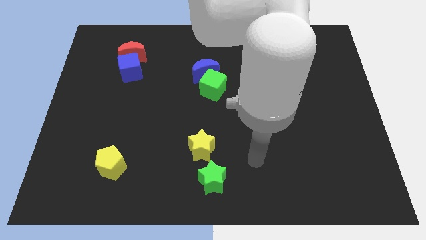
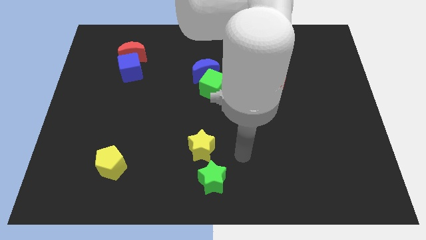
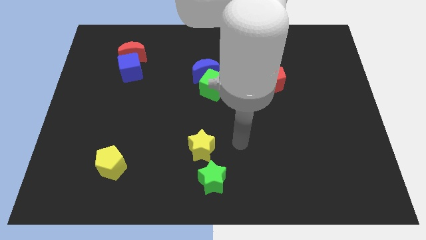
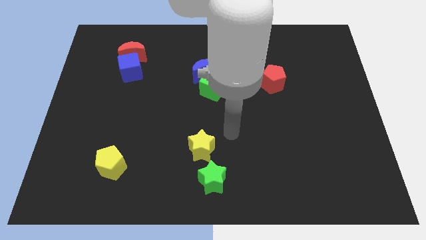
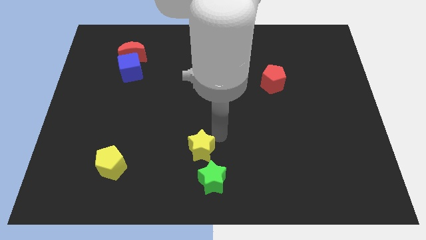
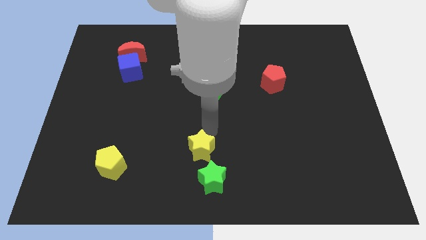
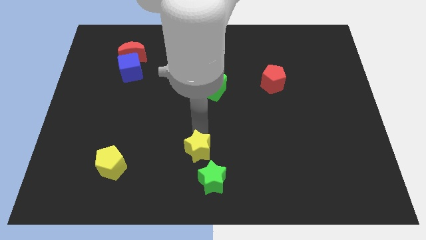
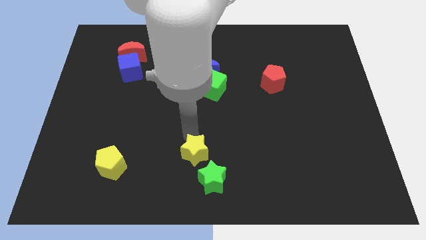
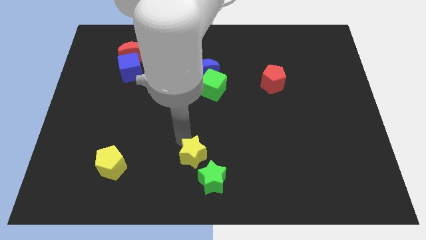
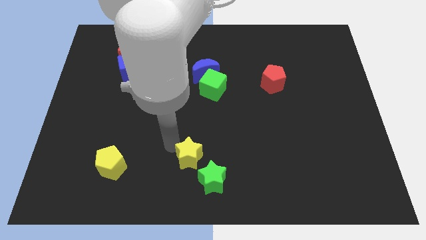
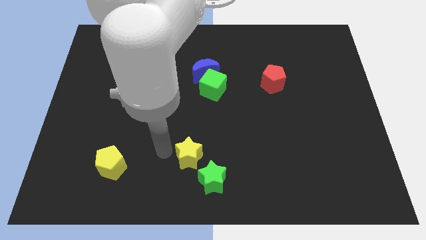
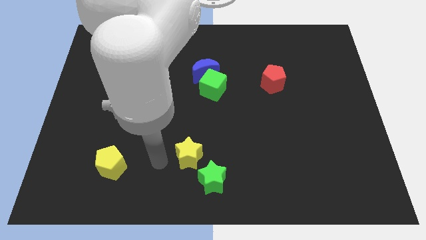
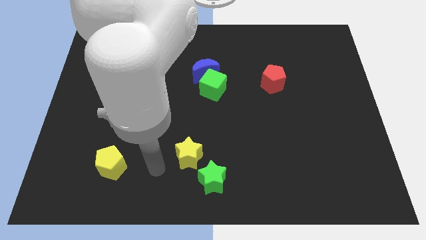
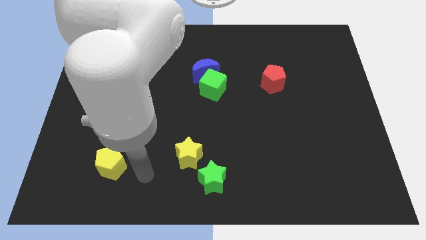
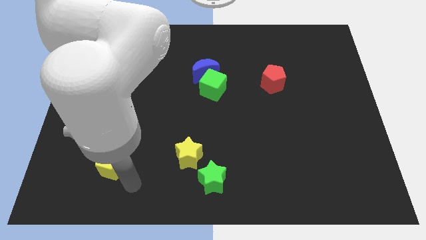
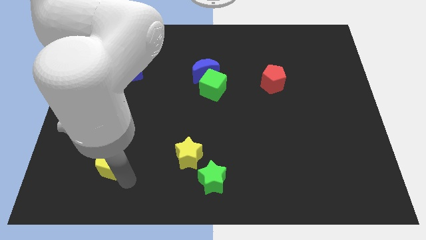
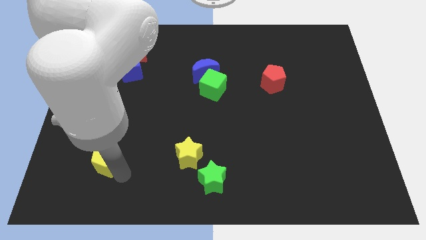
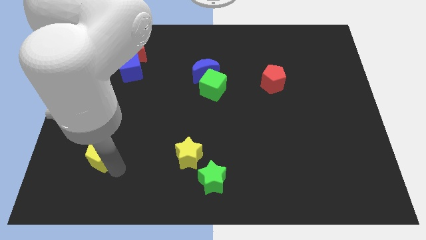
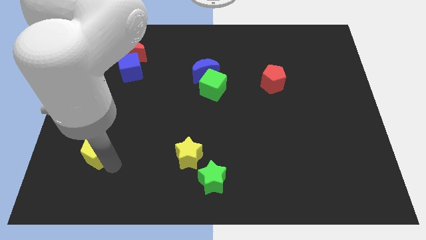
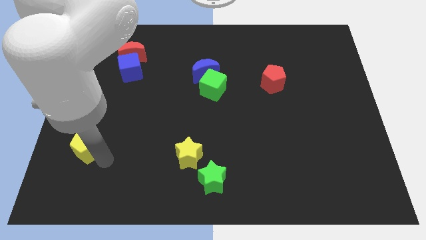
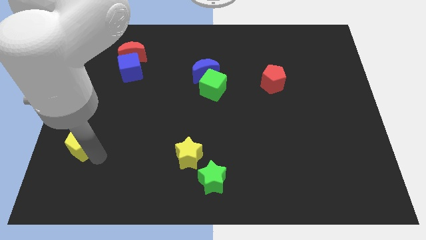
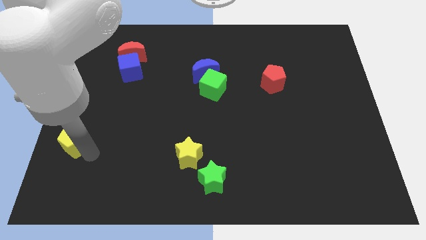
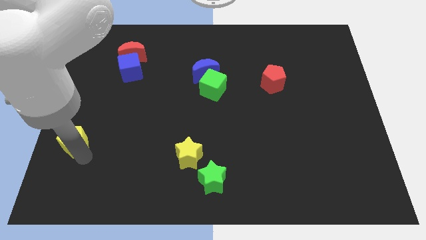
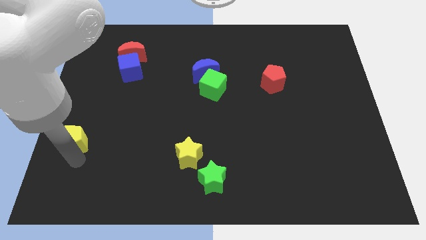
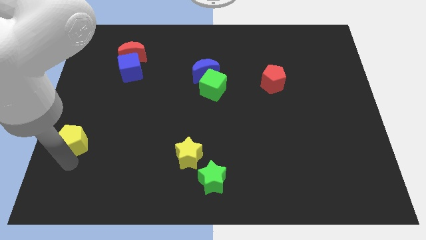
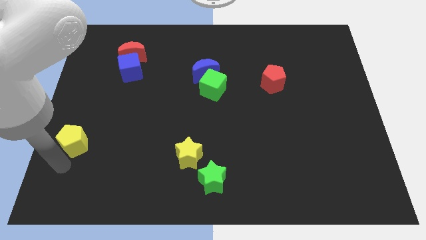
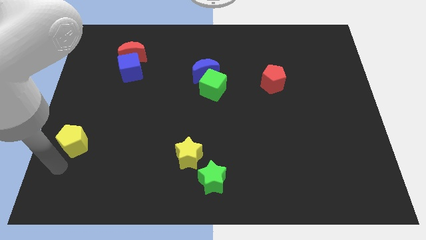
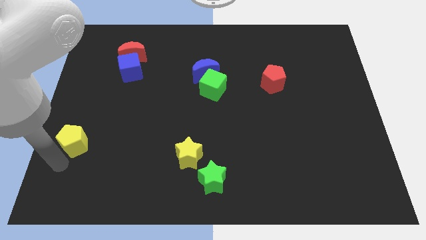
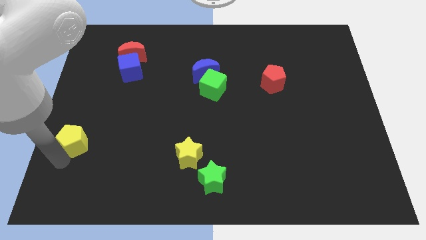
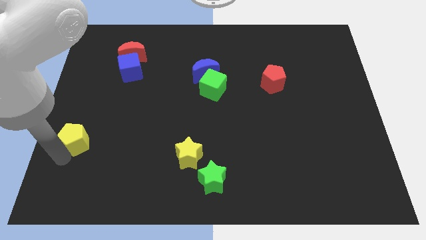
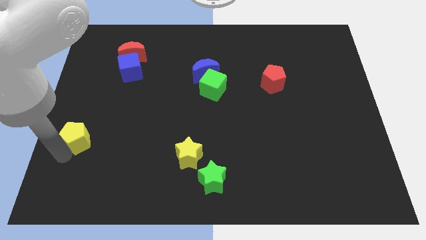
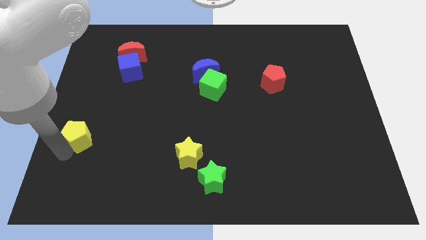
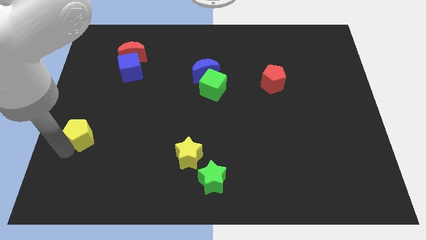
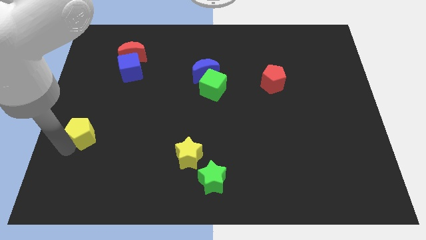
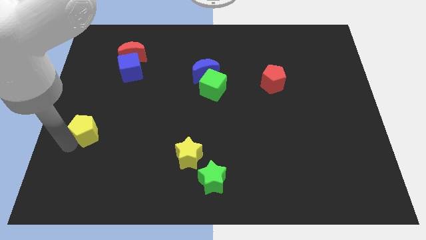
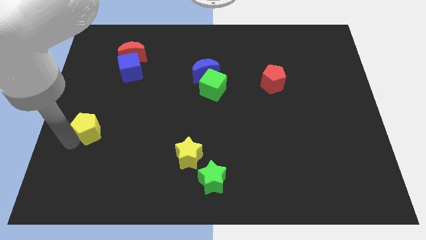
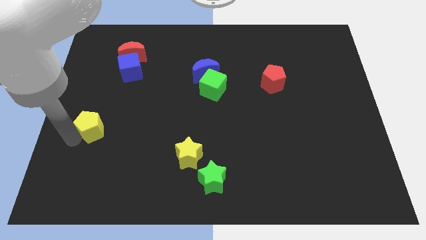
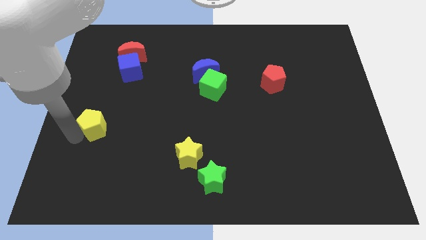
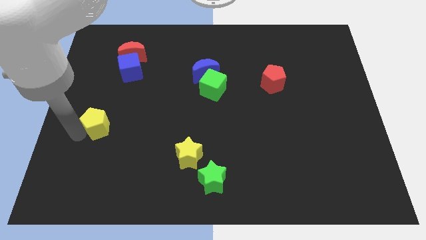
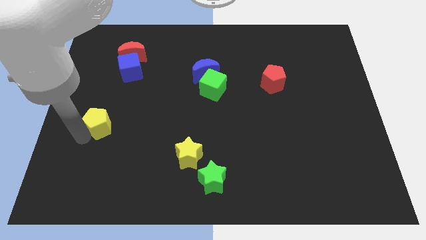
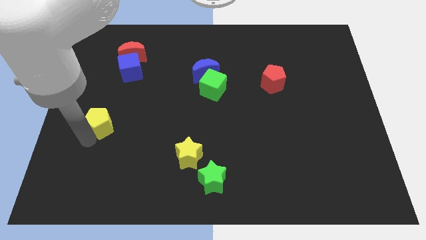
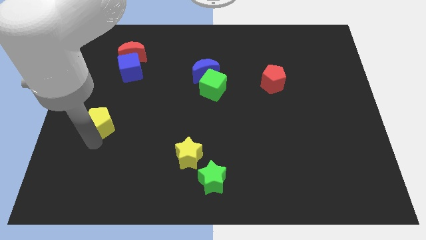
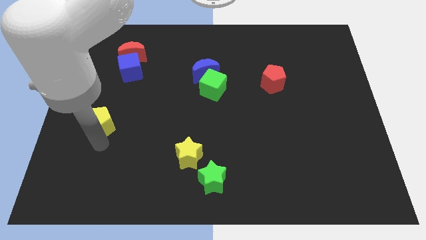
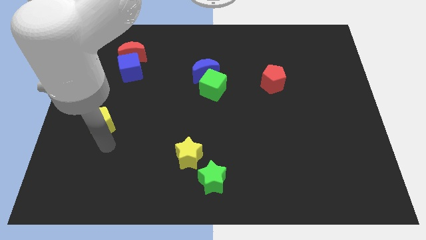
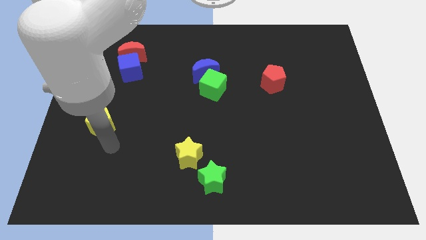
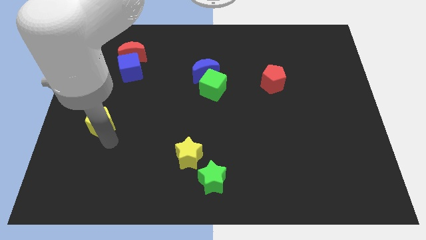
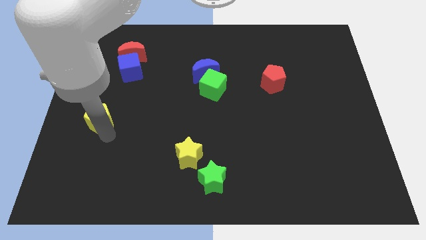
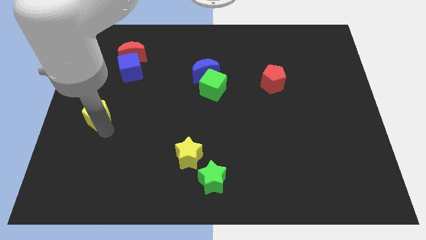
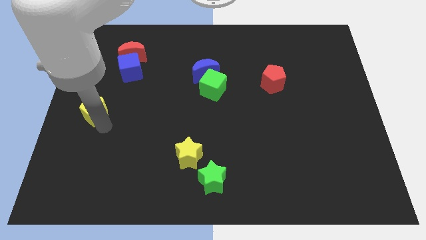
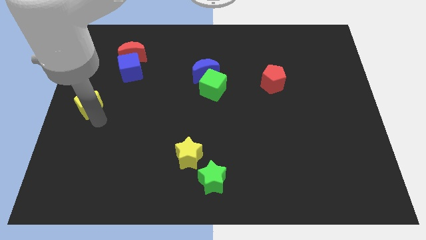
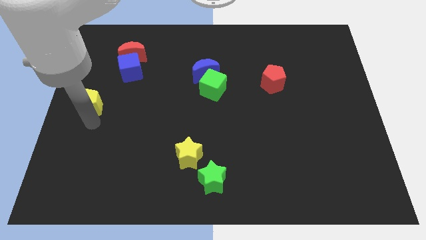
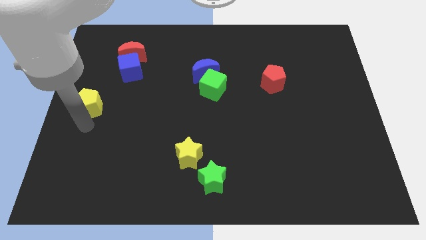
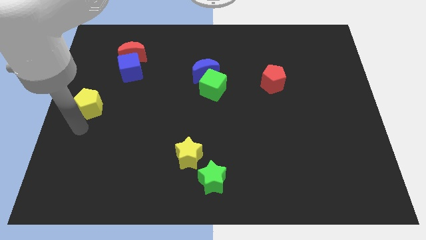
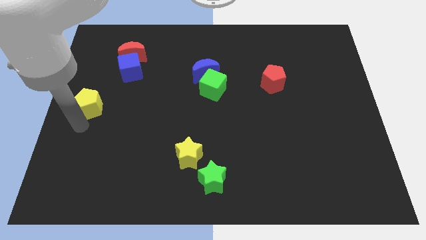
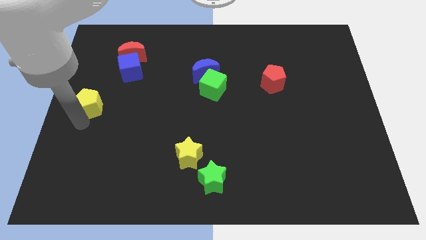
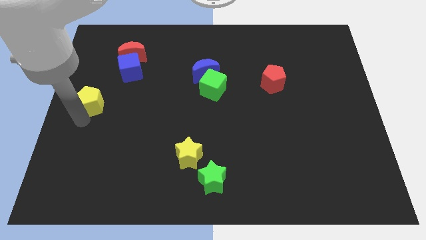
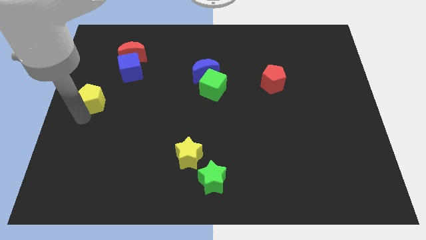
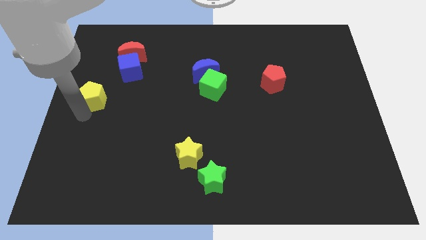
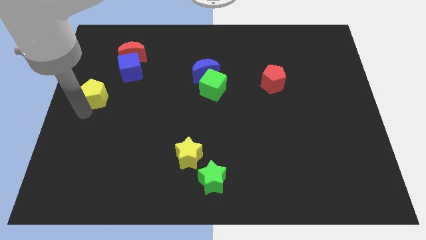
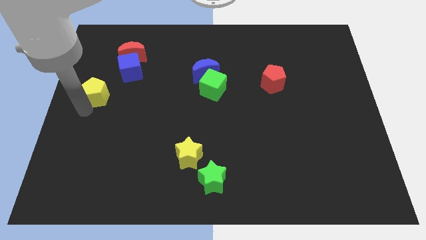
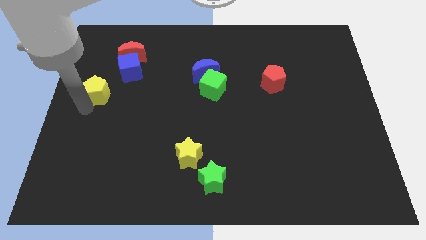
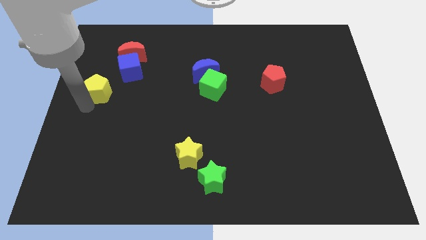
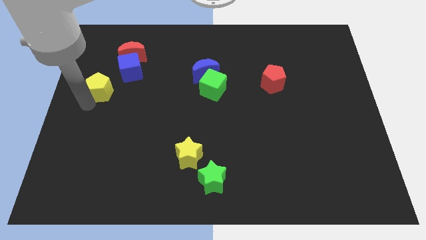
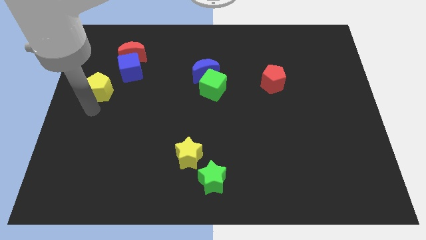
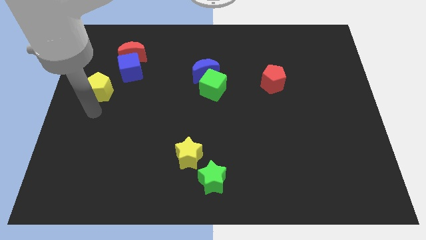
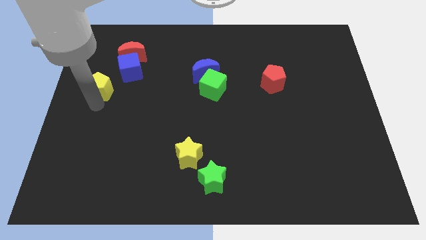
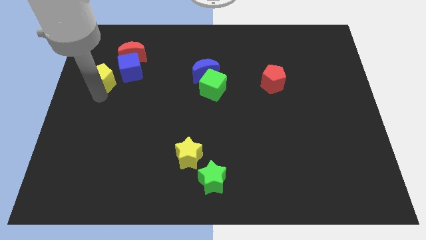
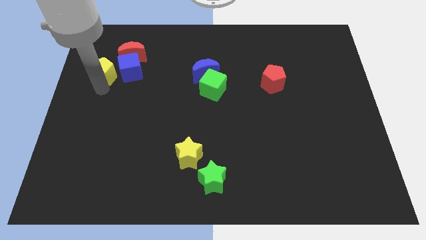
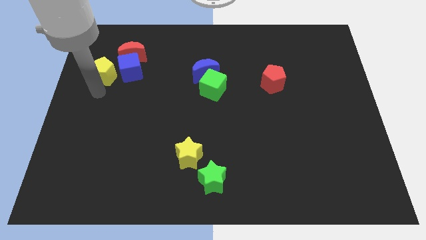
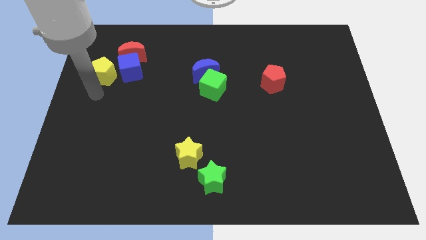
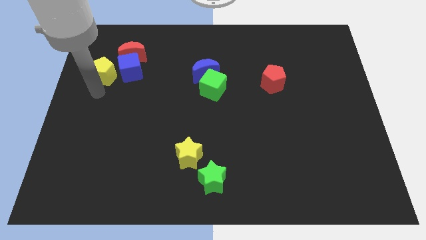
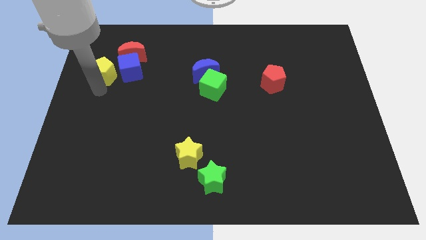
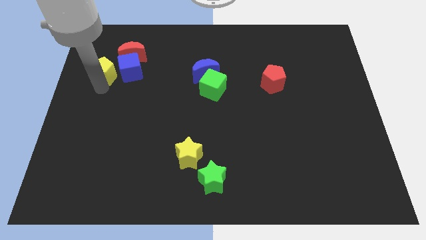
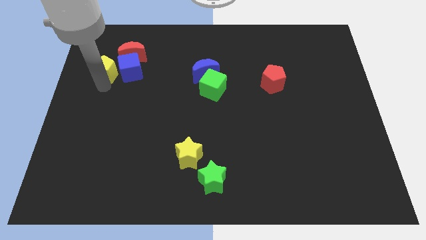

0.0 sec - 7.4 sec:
move the yellow pentagon diagonally up and to the left of the blue cube
